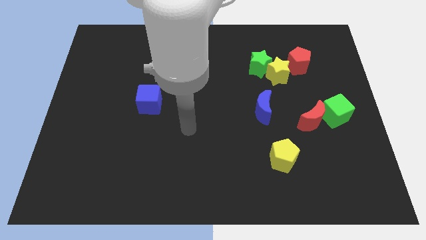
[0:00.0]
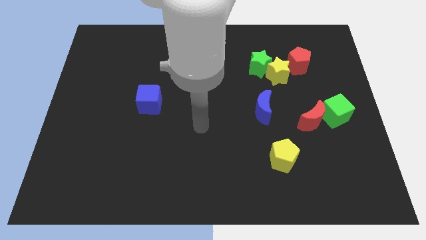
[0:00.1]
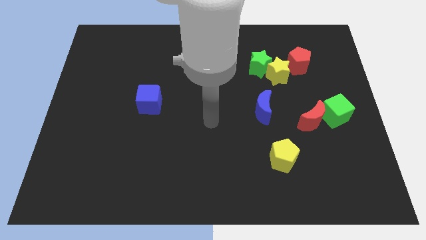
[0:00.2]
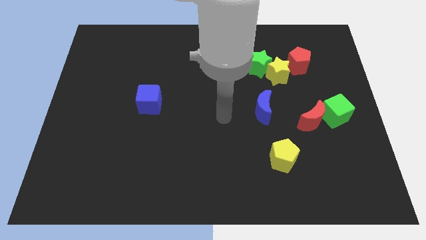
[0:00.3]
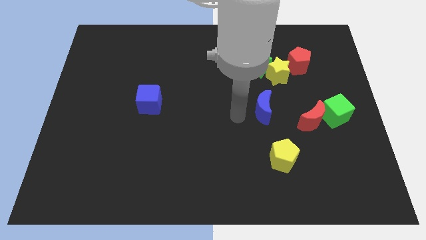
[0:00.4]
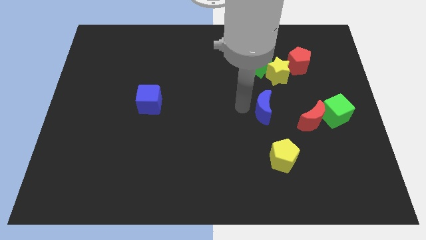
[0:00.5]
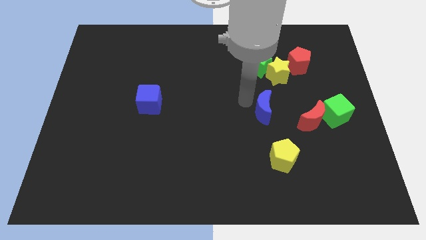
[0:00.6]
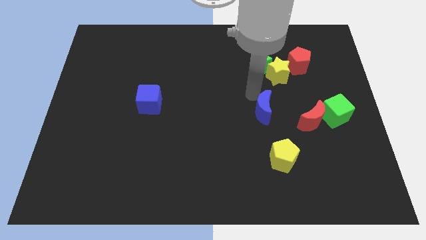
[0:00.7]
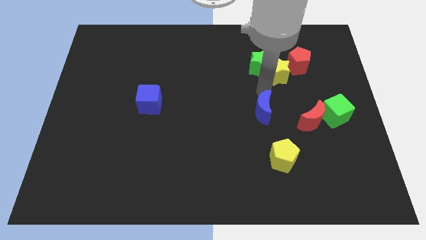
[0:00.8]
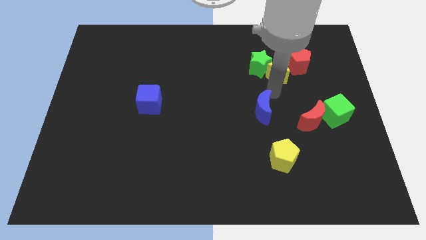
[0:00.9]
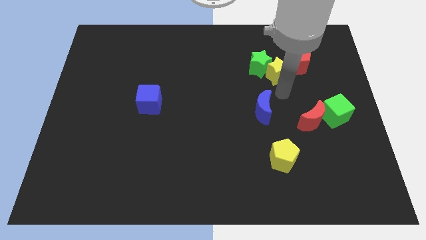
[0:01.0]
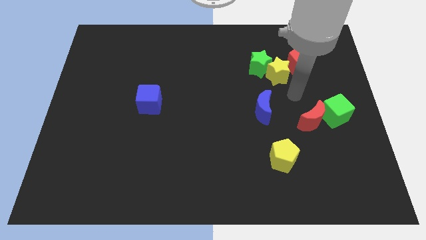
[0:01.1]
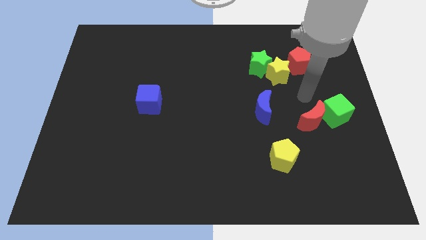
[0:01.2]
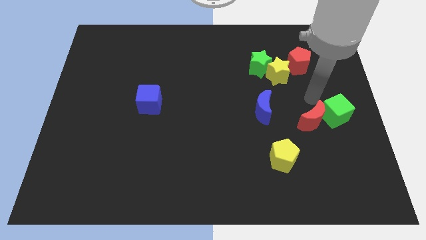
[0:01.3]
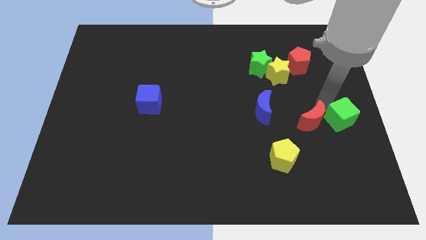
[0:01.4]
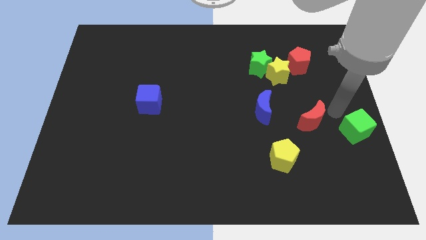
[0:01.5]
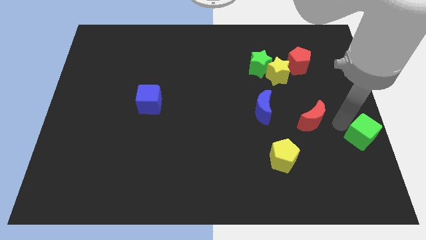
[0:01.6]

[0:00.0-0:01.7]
move the red moon away from the green cube

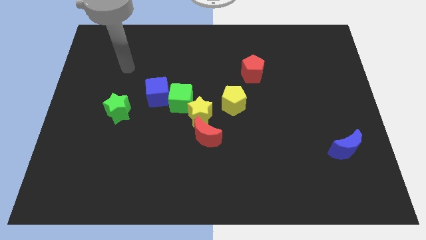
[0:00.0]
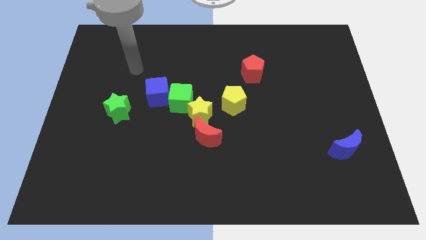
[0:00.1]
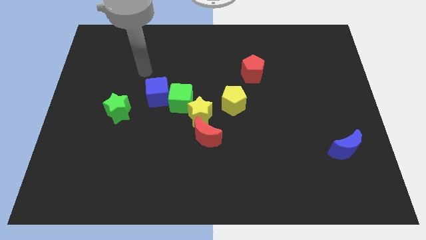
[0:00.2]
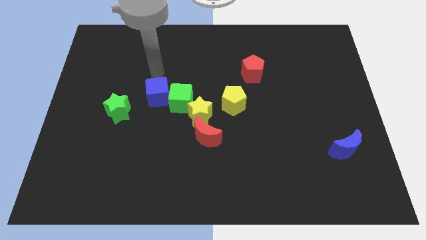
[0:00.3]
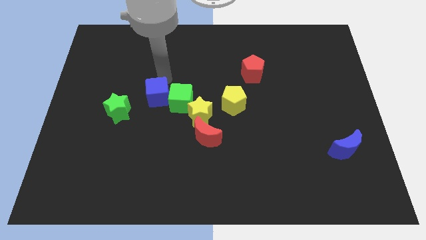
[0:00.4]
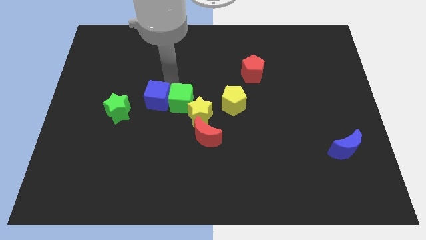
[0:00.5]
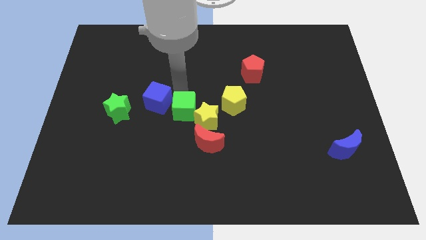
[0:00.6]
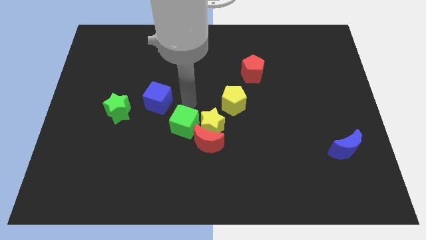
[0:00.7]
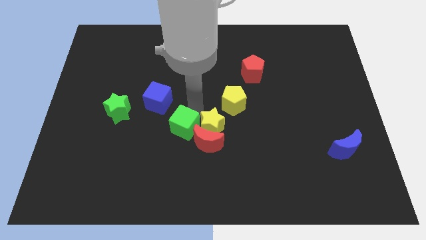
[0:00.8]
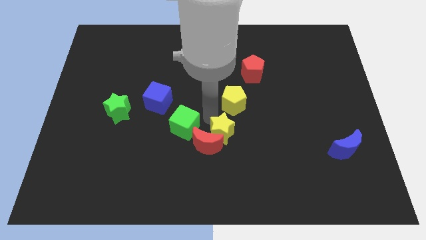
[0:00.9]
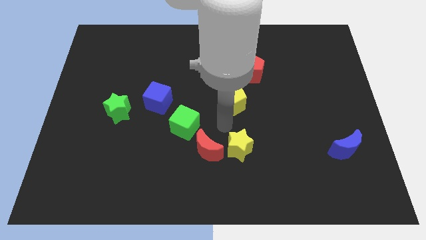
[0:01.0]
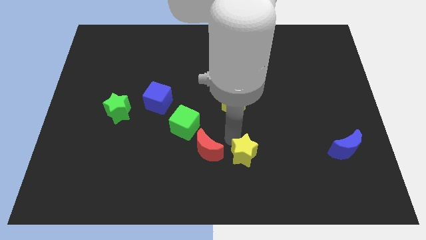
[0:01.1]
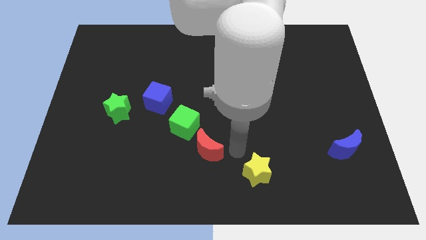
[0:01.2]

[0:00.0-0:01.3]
separate the red moon from the yellow star

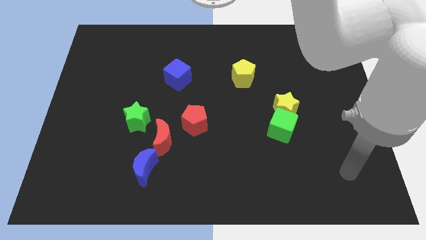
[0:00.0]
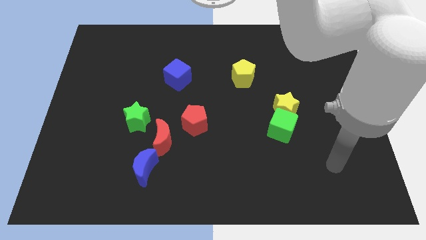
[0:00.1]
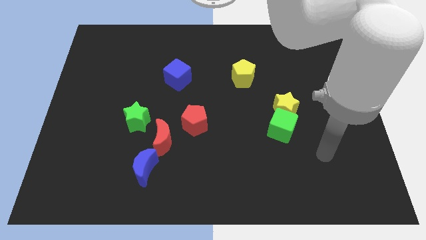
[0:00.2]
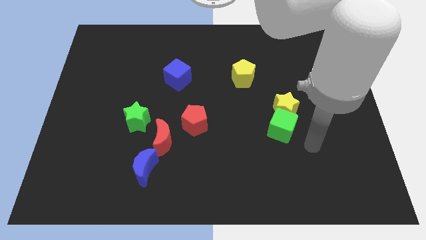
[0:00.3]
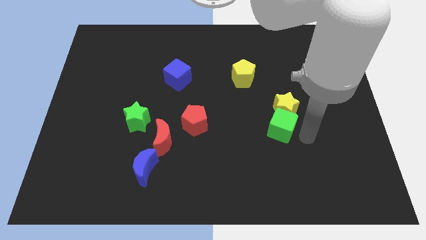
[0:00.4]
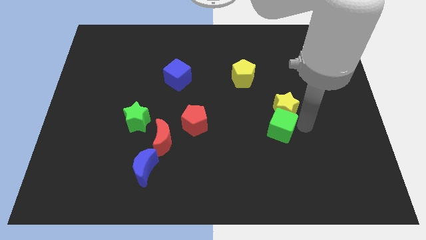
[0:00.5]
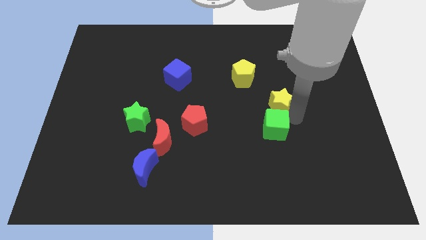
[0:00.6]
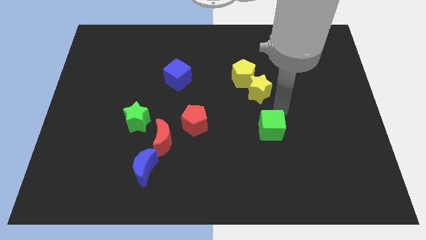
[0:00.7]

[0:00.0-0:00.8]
pull the green cube apart from the yellow star

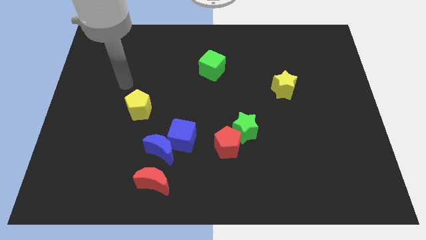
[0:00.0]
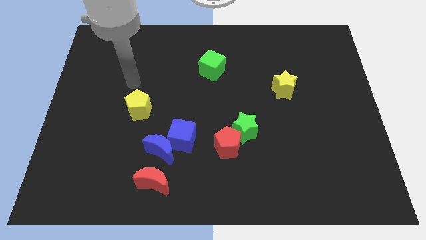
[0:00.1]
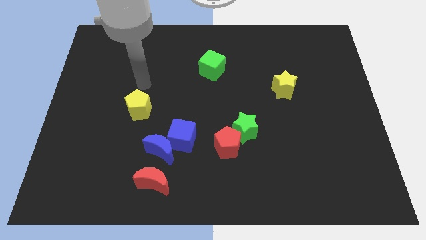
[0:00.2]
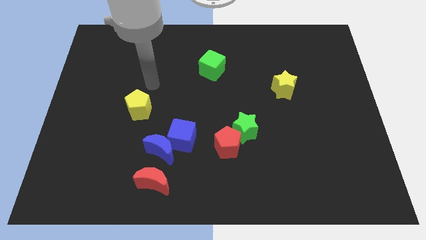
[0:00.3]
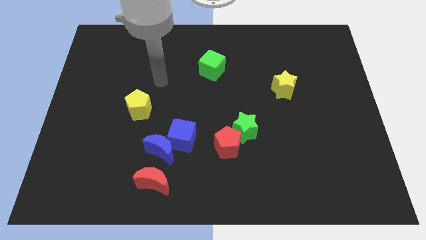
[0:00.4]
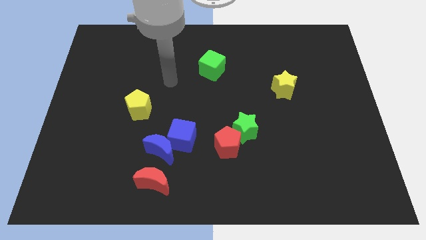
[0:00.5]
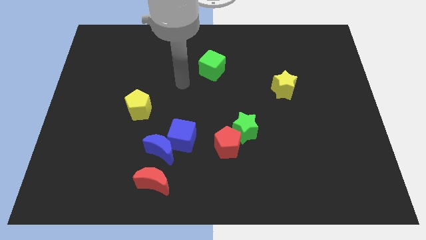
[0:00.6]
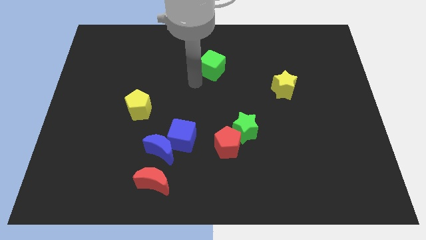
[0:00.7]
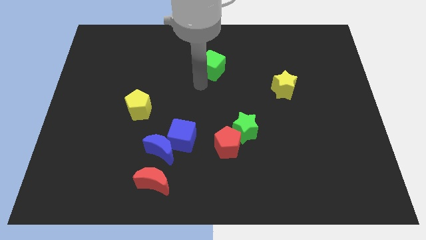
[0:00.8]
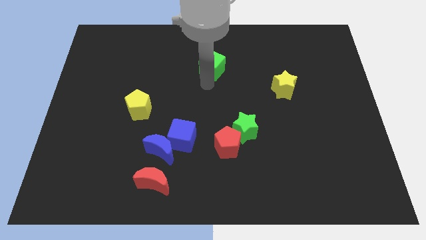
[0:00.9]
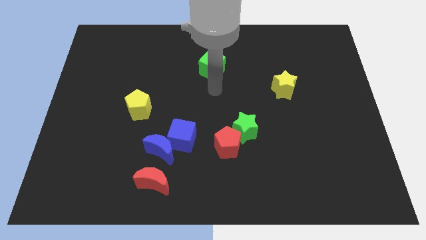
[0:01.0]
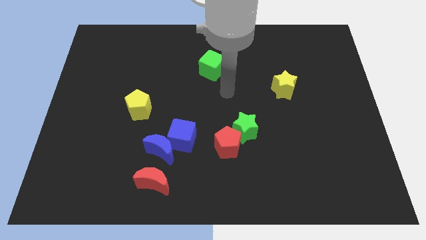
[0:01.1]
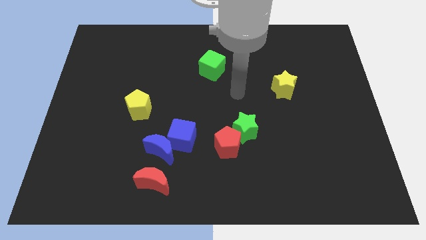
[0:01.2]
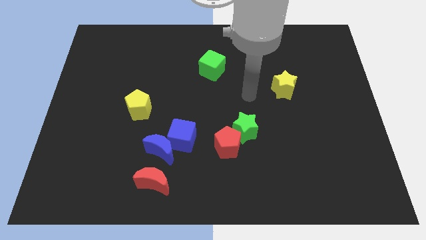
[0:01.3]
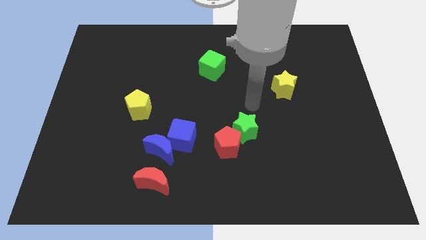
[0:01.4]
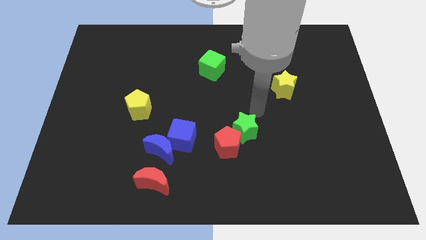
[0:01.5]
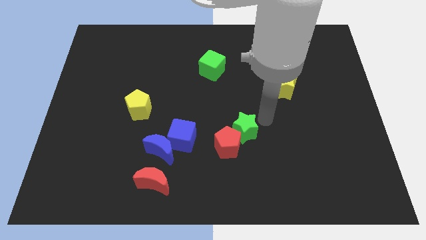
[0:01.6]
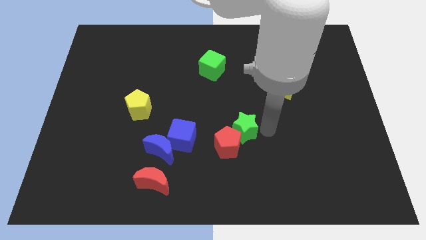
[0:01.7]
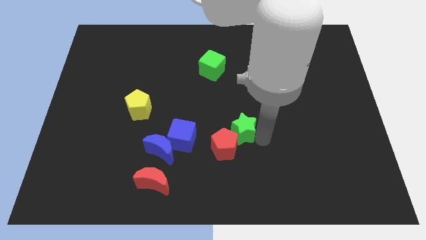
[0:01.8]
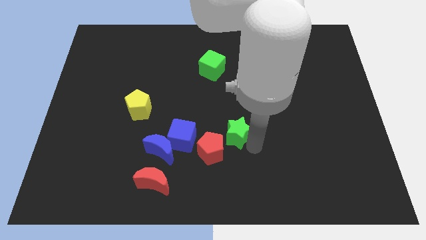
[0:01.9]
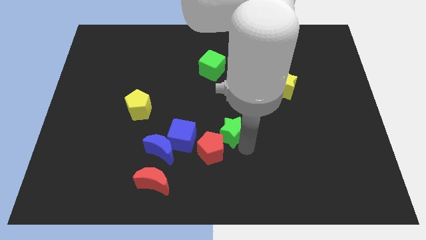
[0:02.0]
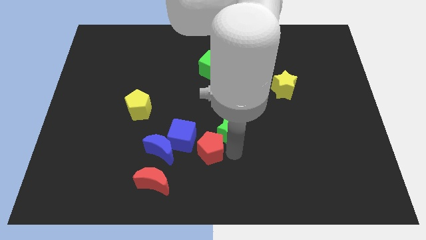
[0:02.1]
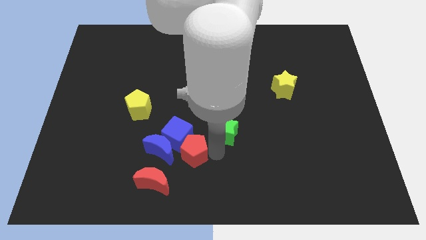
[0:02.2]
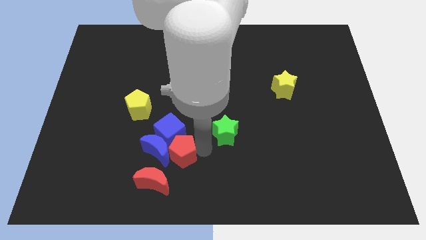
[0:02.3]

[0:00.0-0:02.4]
pull the green star apart from the red pentagon

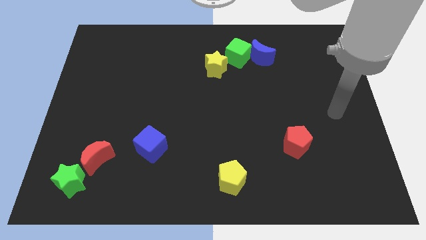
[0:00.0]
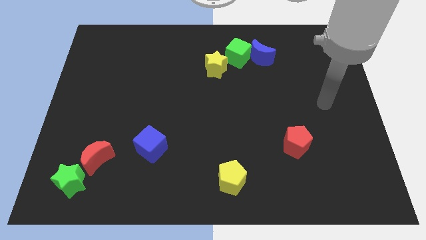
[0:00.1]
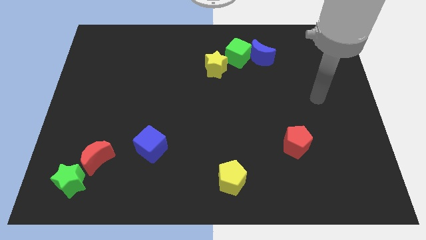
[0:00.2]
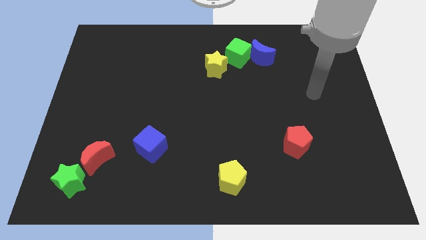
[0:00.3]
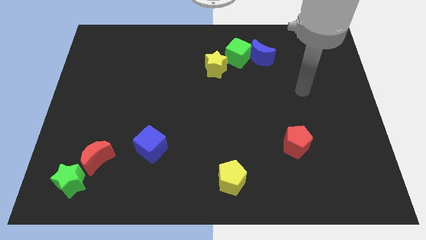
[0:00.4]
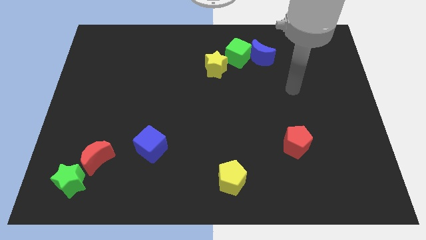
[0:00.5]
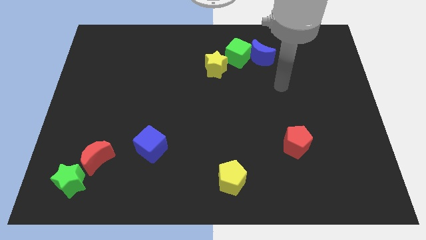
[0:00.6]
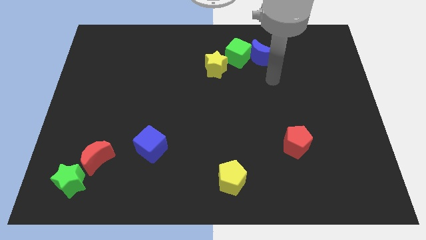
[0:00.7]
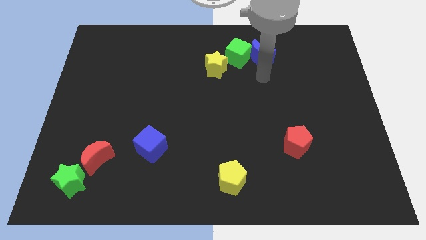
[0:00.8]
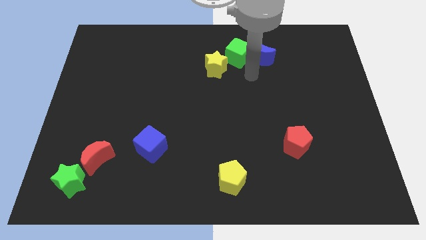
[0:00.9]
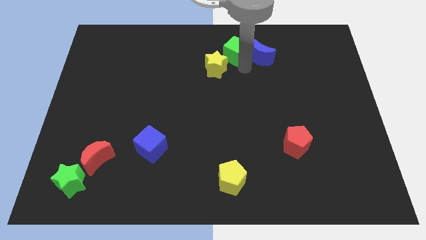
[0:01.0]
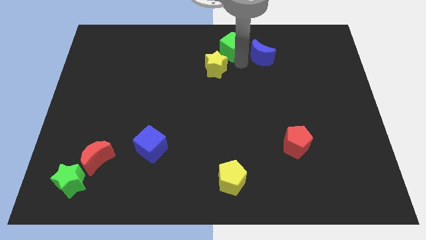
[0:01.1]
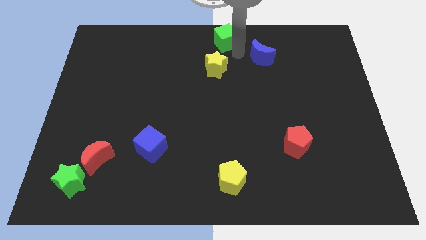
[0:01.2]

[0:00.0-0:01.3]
separate the blue moon from the green cube

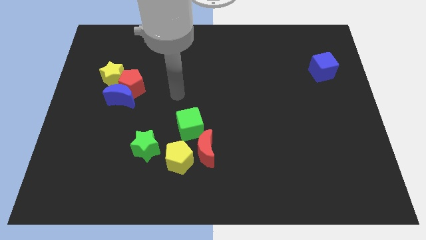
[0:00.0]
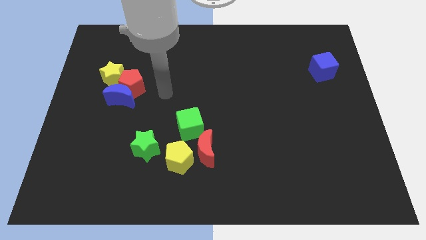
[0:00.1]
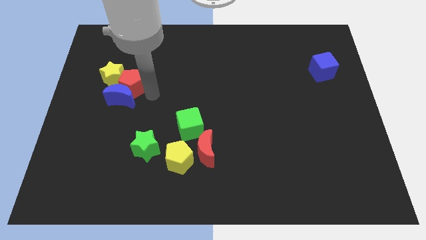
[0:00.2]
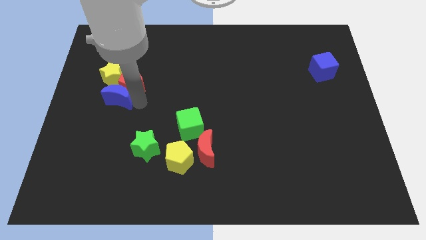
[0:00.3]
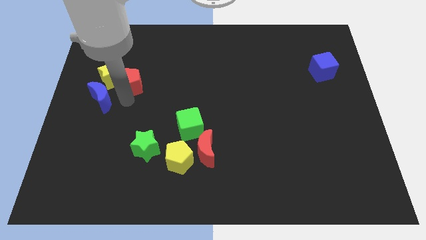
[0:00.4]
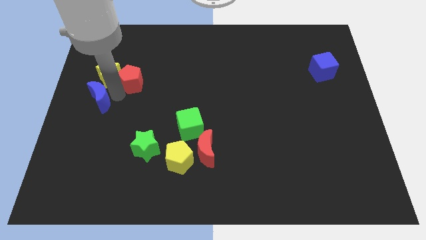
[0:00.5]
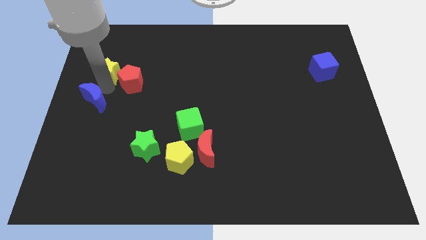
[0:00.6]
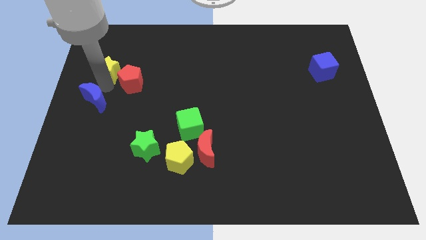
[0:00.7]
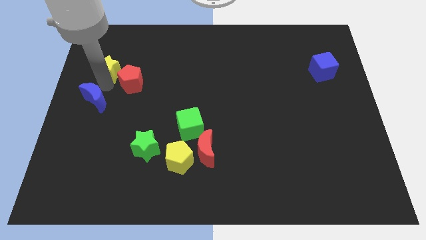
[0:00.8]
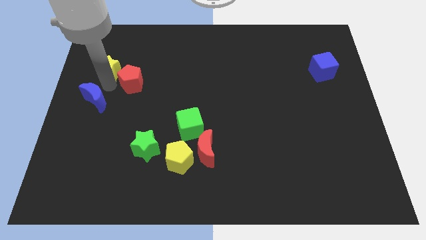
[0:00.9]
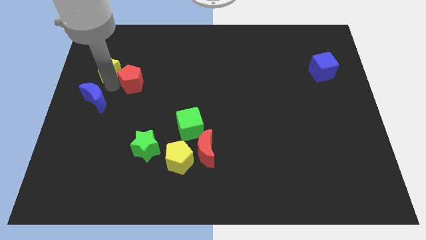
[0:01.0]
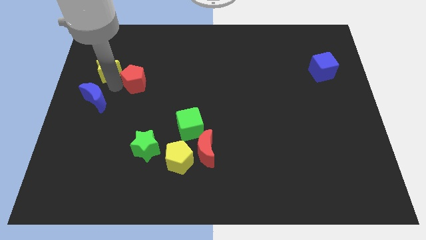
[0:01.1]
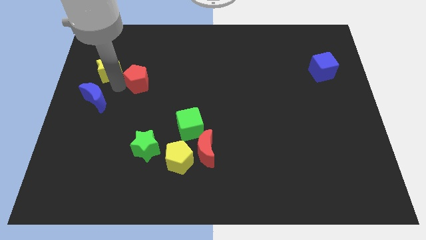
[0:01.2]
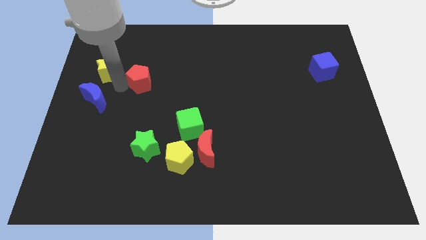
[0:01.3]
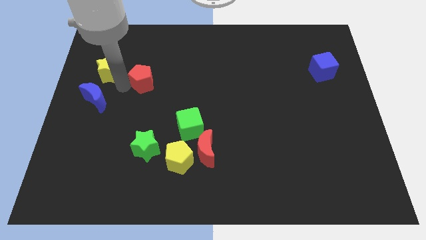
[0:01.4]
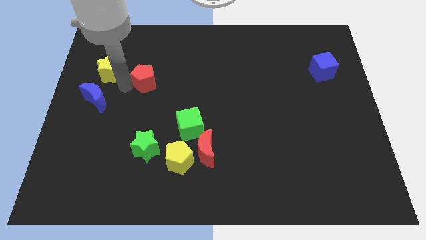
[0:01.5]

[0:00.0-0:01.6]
separate the red pentagon from the blue moon and yellow star

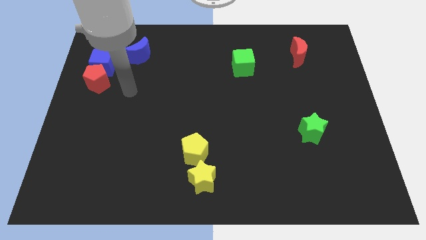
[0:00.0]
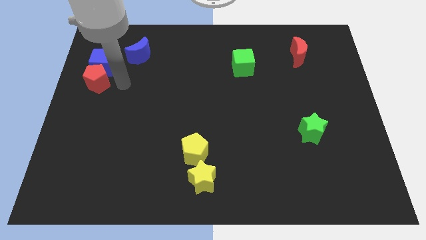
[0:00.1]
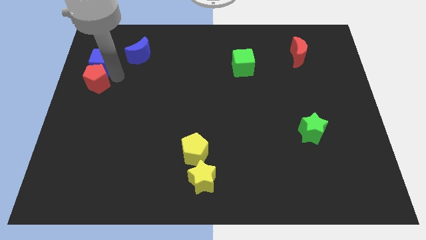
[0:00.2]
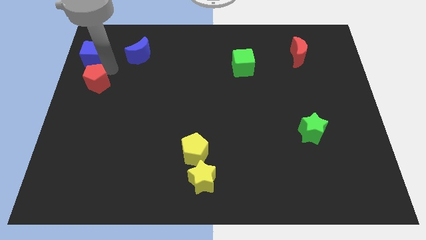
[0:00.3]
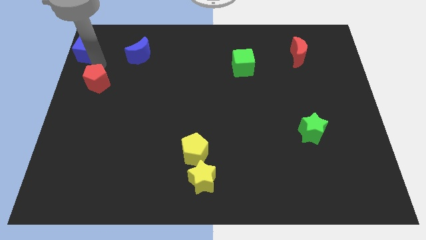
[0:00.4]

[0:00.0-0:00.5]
pull the red pentagon apart from the blue cube
